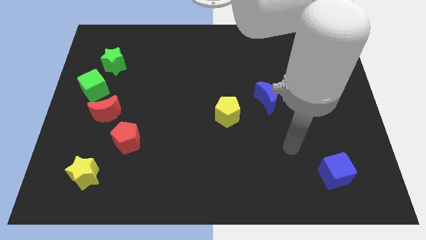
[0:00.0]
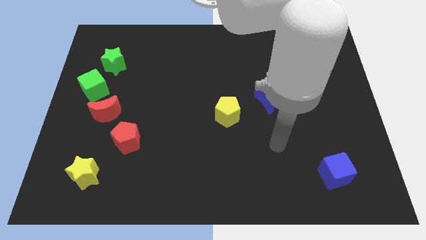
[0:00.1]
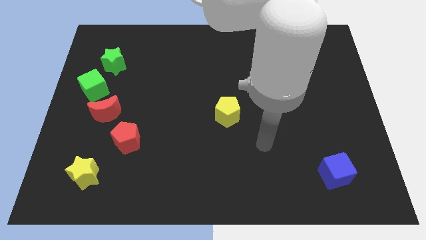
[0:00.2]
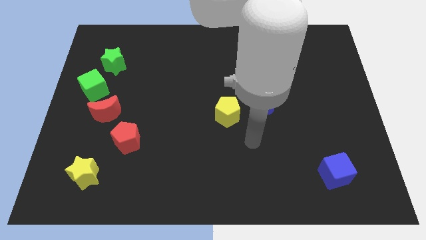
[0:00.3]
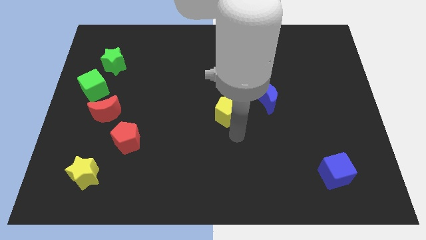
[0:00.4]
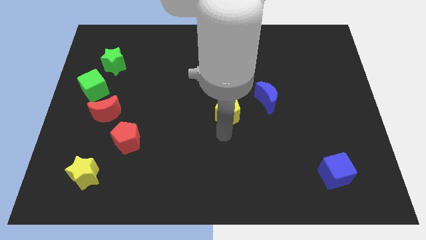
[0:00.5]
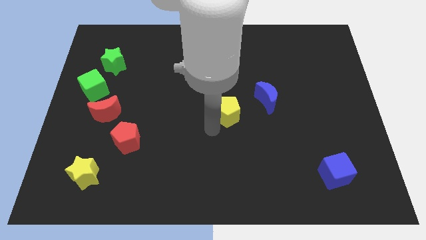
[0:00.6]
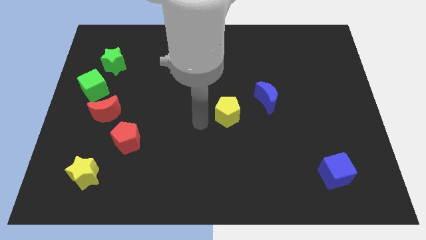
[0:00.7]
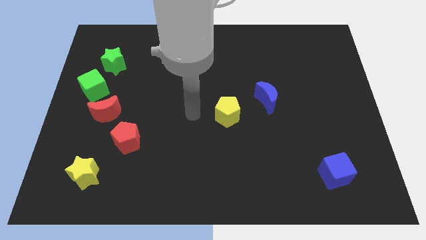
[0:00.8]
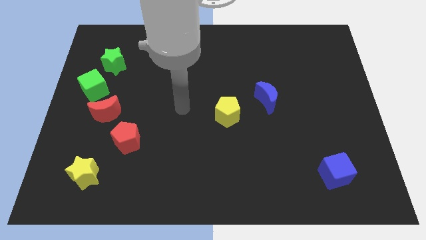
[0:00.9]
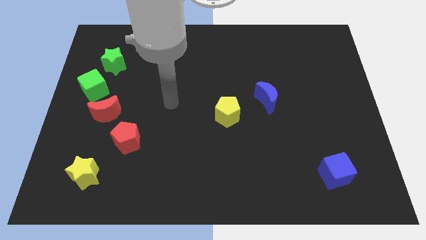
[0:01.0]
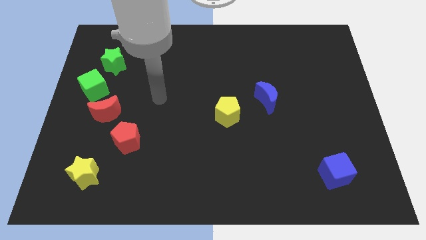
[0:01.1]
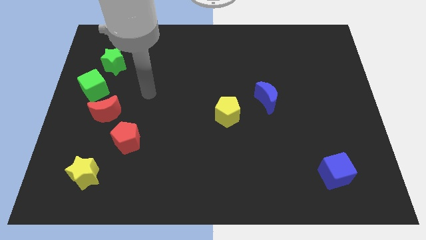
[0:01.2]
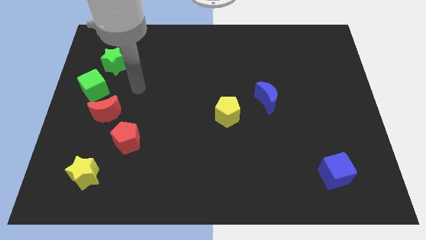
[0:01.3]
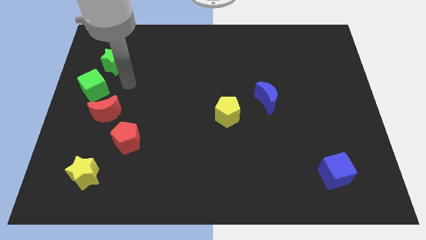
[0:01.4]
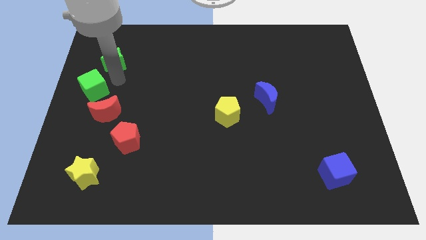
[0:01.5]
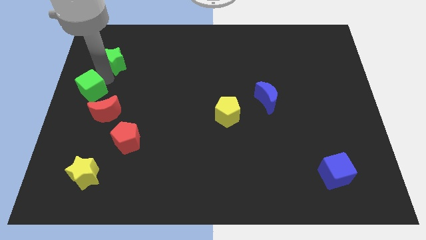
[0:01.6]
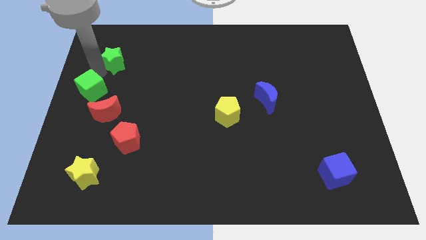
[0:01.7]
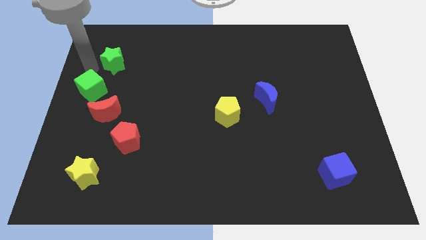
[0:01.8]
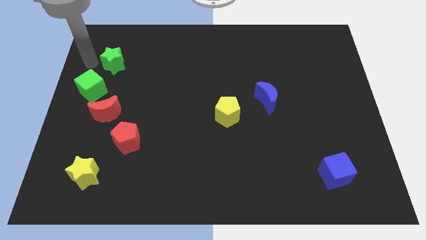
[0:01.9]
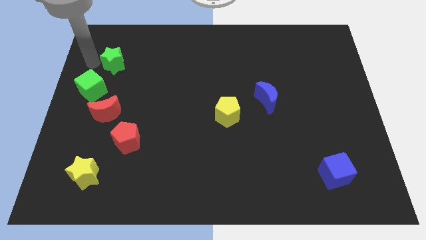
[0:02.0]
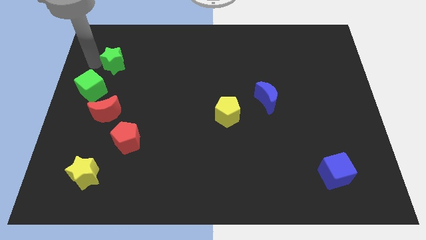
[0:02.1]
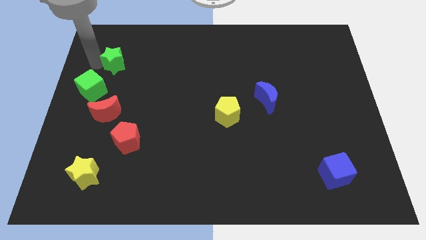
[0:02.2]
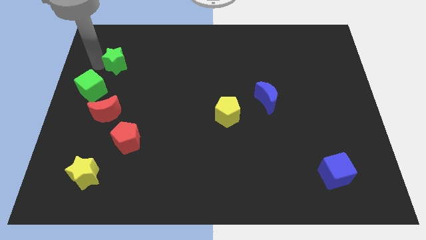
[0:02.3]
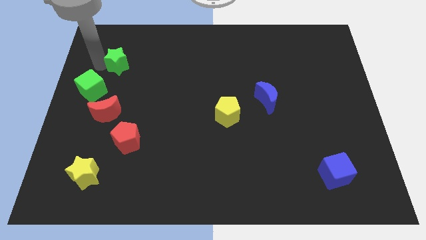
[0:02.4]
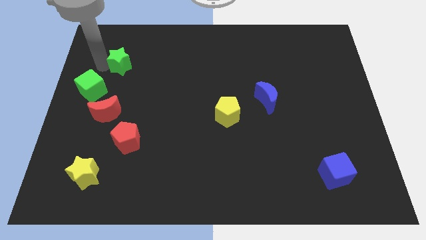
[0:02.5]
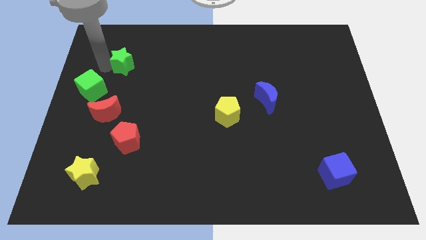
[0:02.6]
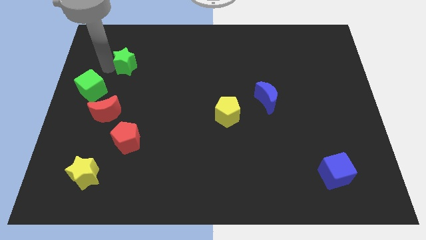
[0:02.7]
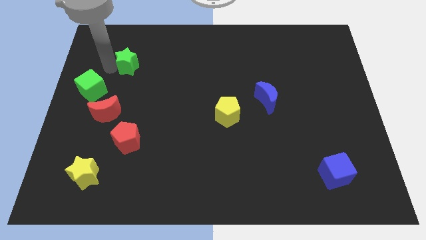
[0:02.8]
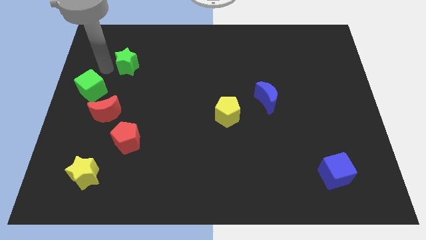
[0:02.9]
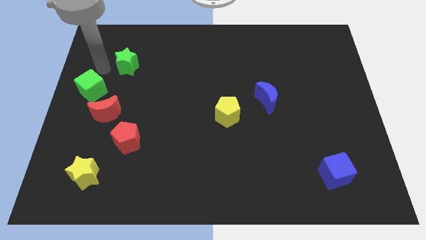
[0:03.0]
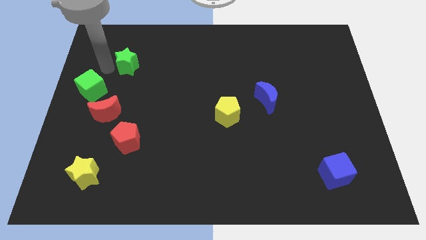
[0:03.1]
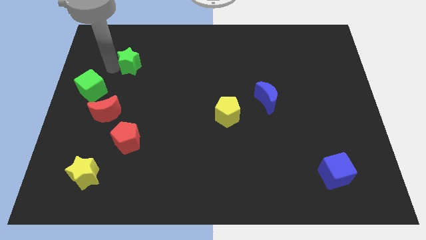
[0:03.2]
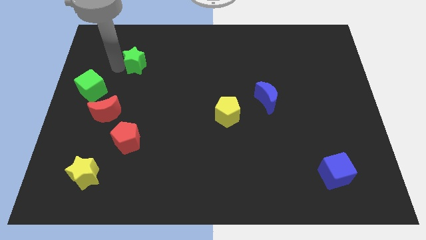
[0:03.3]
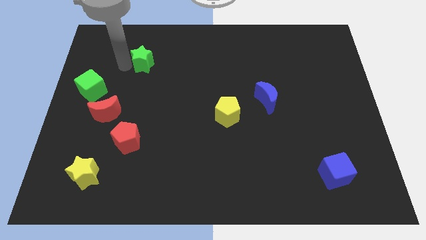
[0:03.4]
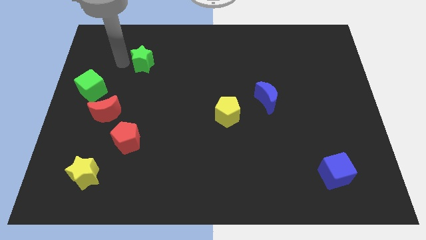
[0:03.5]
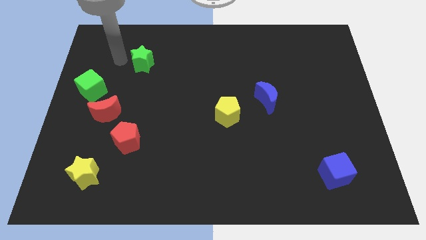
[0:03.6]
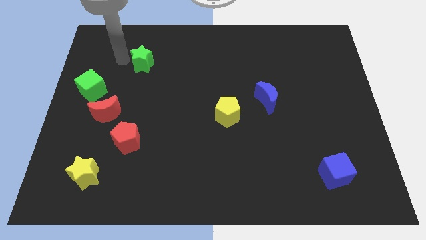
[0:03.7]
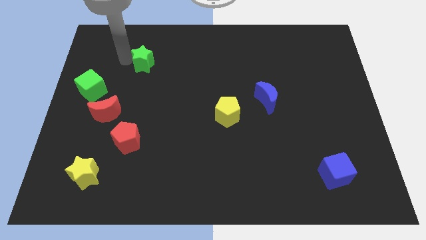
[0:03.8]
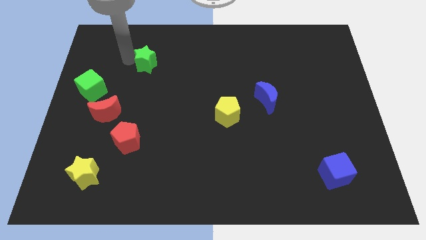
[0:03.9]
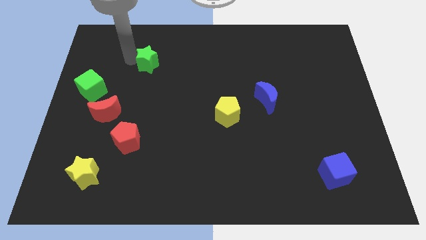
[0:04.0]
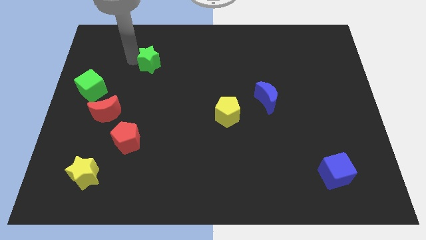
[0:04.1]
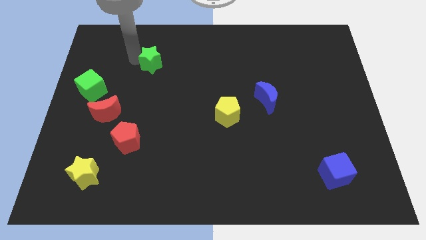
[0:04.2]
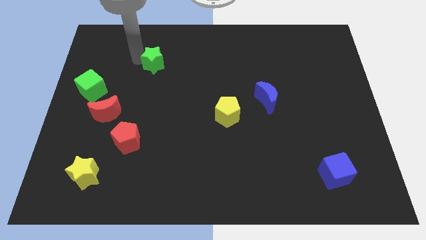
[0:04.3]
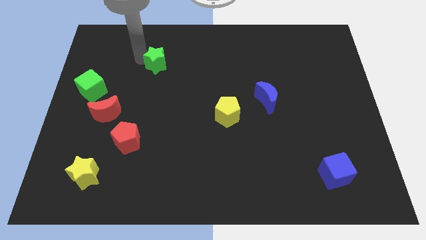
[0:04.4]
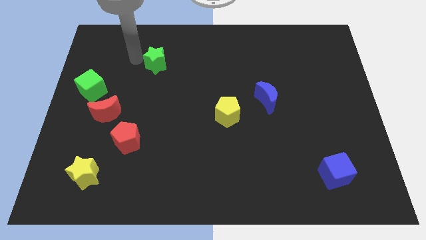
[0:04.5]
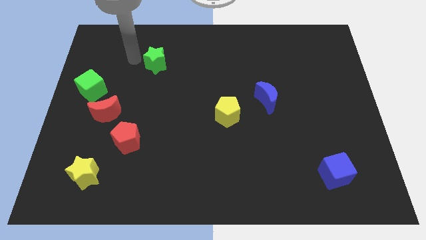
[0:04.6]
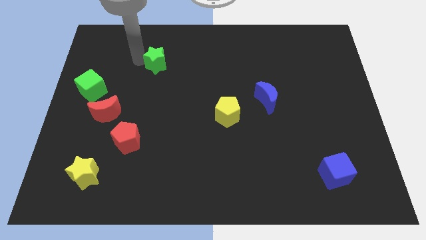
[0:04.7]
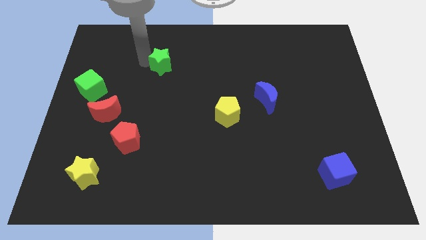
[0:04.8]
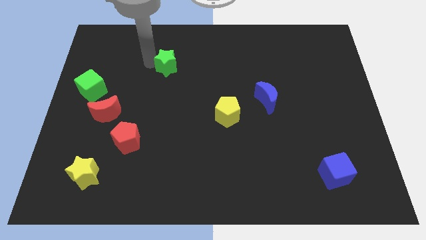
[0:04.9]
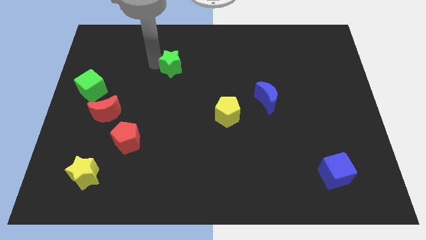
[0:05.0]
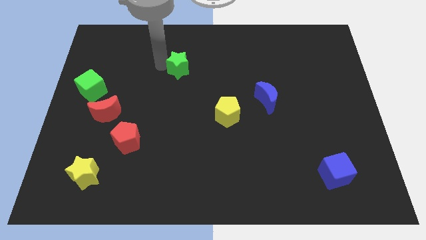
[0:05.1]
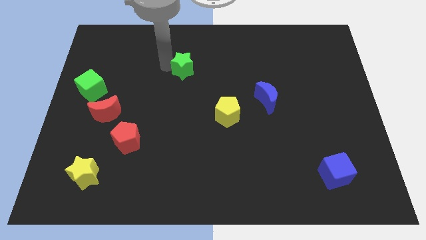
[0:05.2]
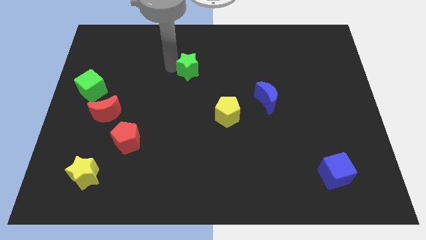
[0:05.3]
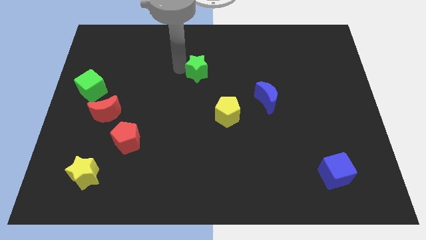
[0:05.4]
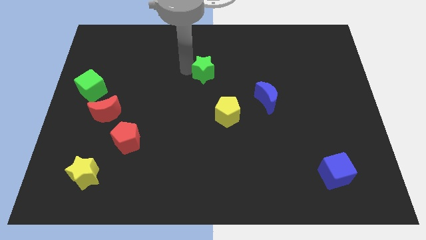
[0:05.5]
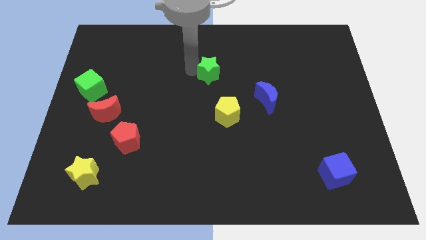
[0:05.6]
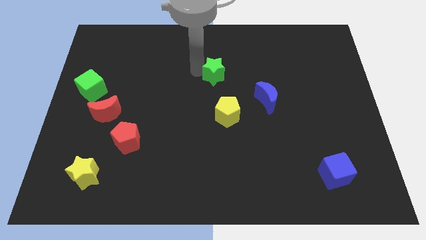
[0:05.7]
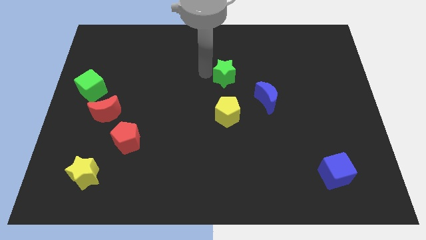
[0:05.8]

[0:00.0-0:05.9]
move the green star to the top left of the blue moon

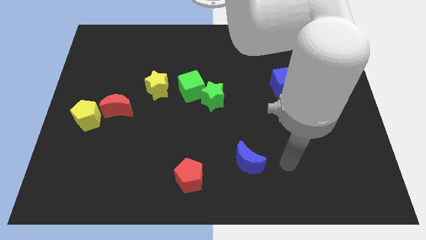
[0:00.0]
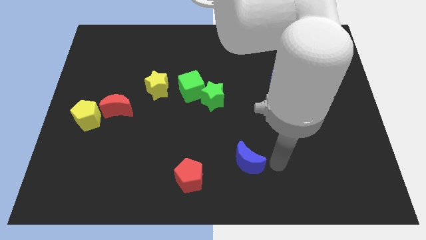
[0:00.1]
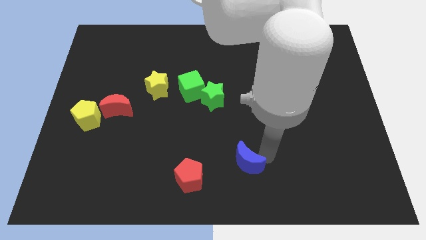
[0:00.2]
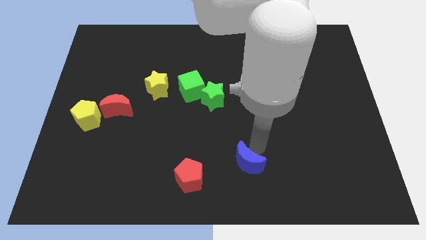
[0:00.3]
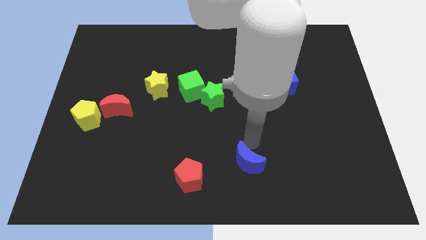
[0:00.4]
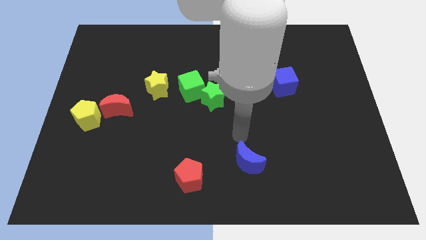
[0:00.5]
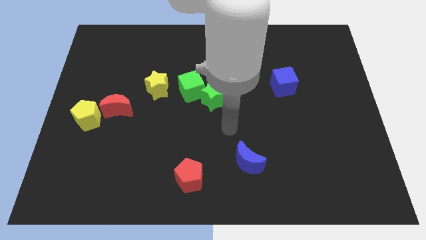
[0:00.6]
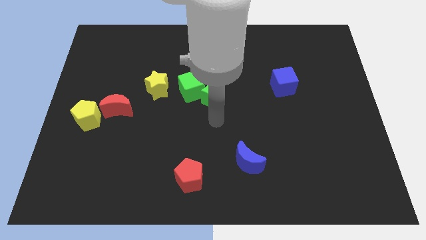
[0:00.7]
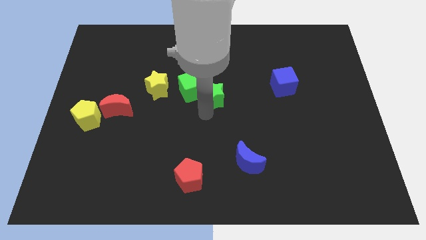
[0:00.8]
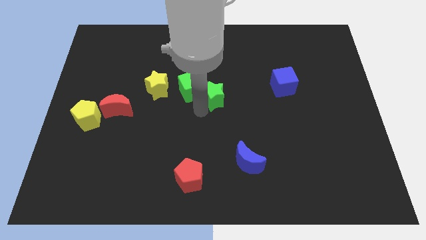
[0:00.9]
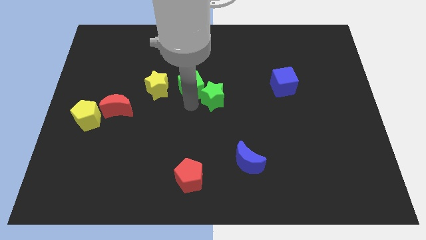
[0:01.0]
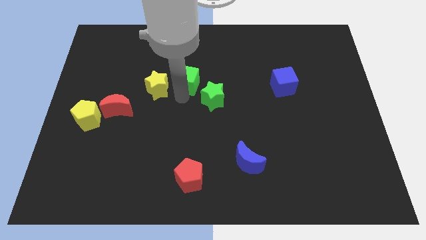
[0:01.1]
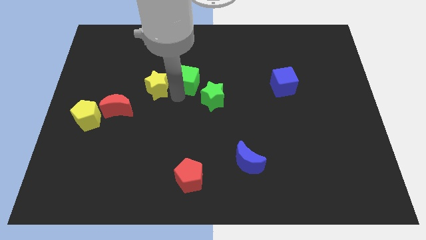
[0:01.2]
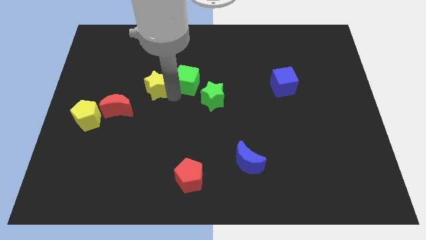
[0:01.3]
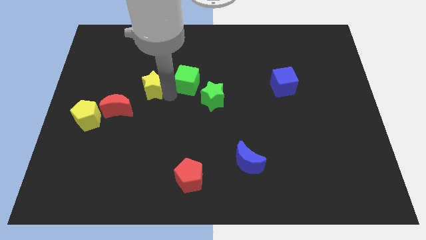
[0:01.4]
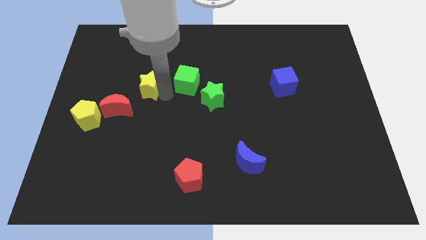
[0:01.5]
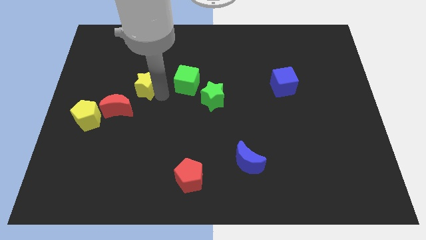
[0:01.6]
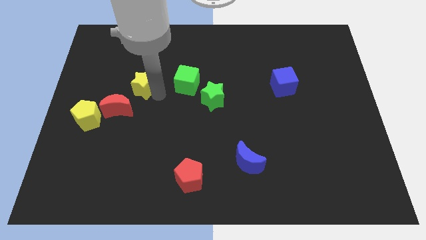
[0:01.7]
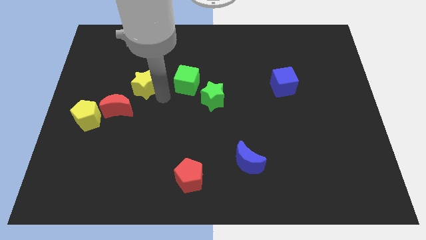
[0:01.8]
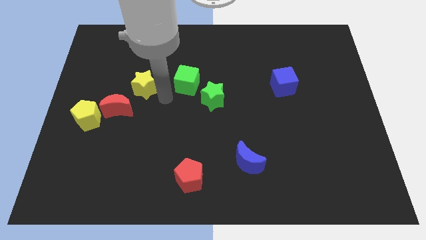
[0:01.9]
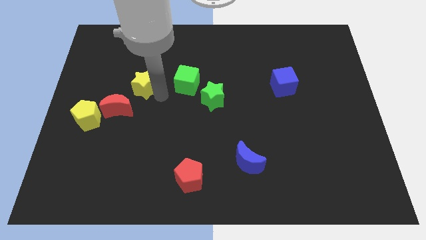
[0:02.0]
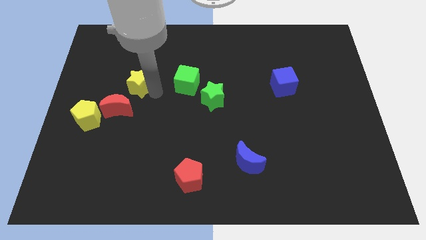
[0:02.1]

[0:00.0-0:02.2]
move the yellow star to the top of the red moon
